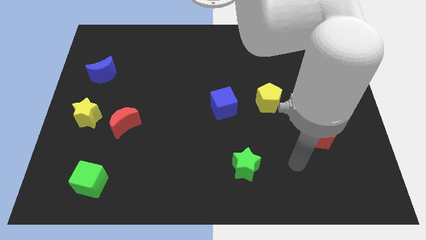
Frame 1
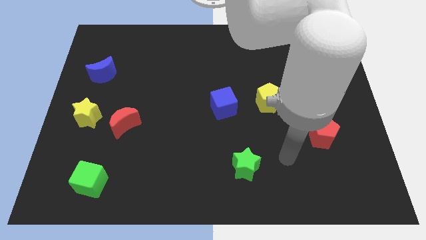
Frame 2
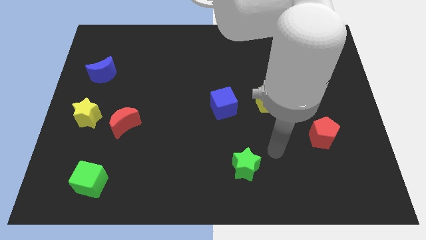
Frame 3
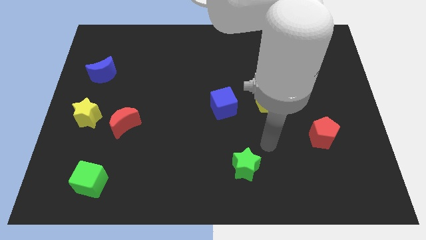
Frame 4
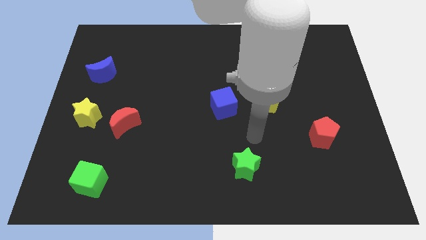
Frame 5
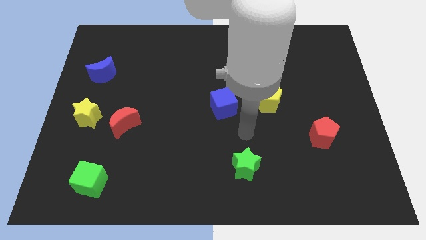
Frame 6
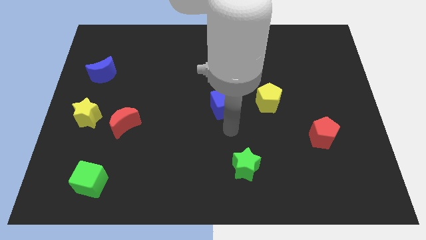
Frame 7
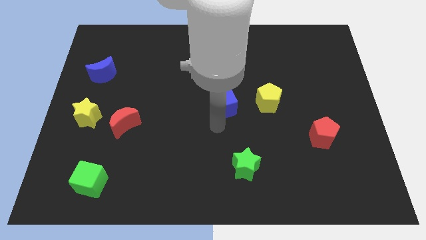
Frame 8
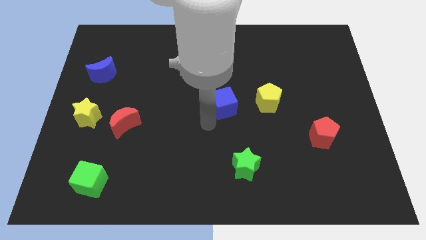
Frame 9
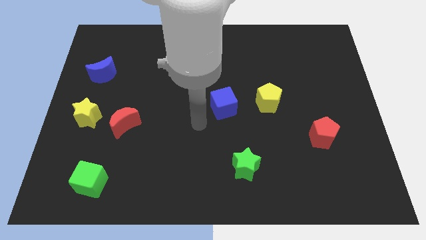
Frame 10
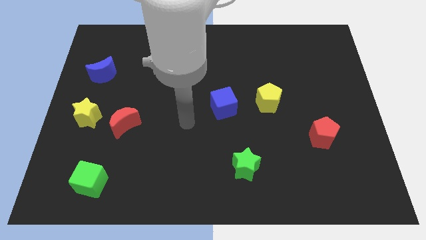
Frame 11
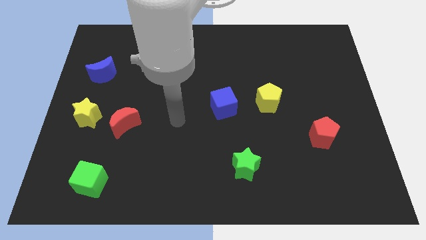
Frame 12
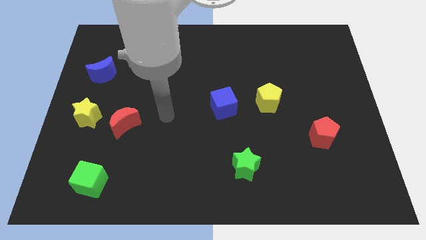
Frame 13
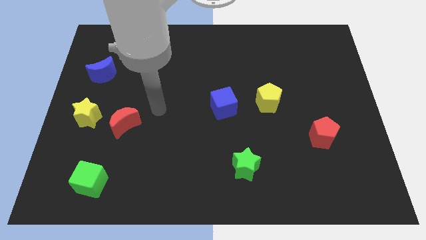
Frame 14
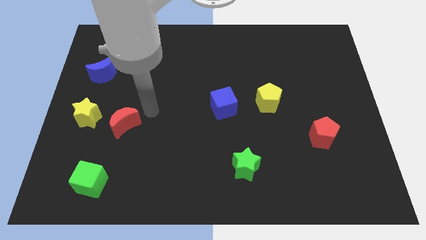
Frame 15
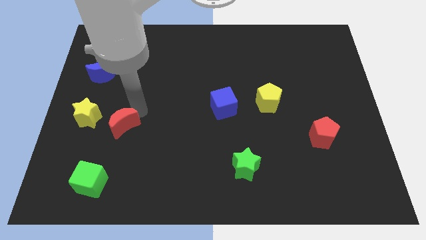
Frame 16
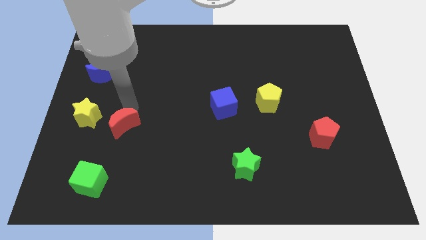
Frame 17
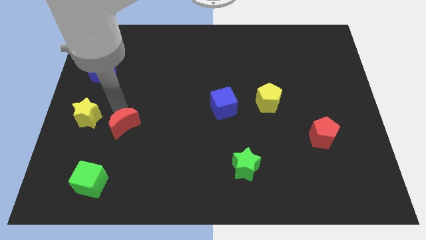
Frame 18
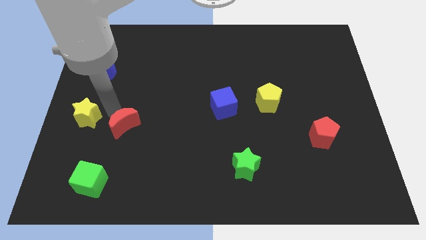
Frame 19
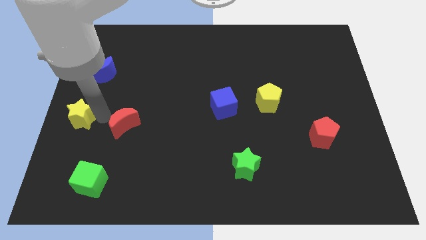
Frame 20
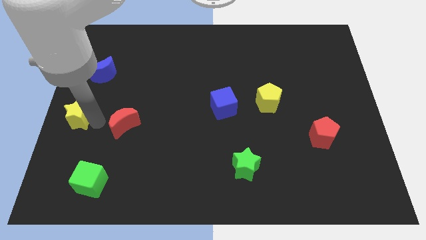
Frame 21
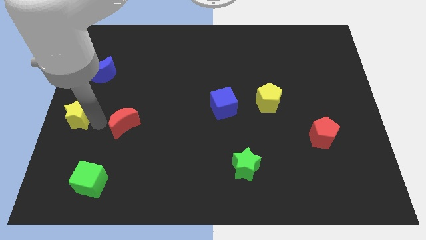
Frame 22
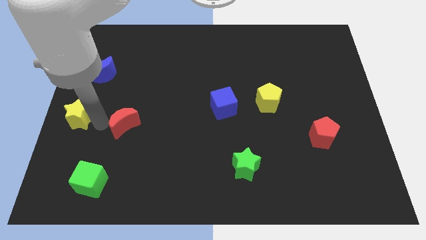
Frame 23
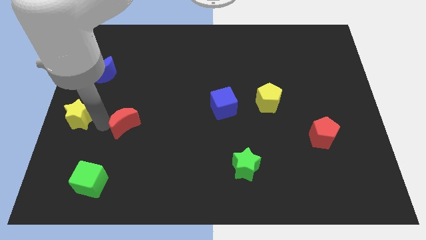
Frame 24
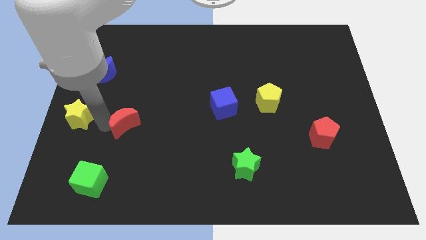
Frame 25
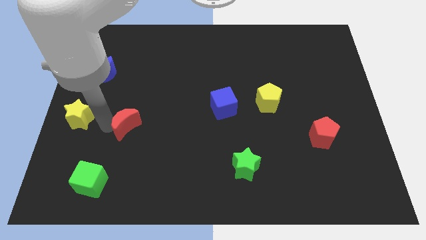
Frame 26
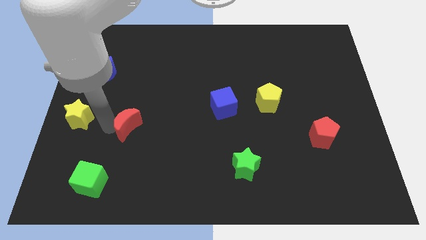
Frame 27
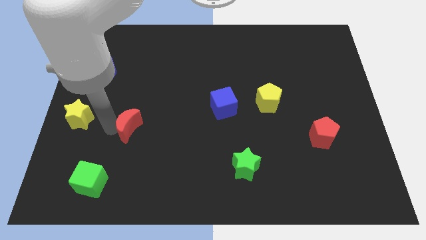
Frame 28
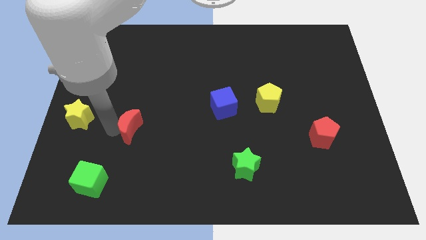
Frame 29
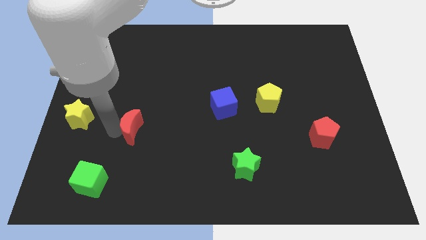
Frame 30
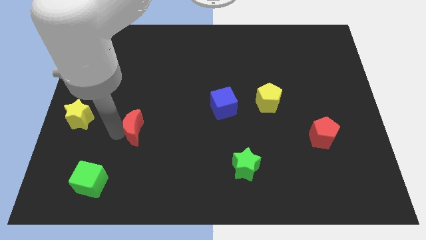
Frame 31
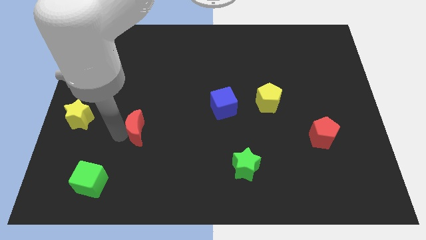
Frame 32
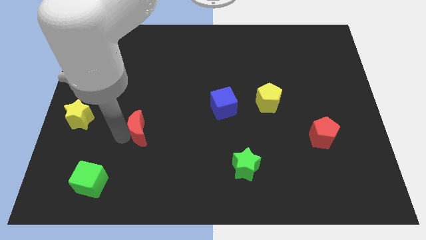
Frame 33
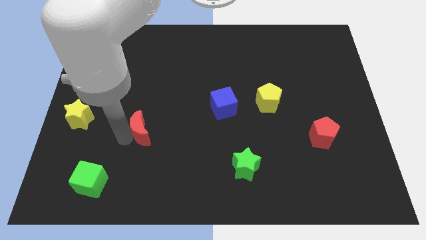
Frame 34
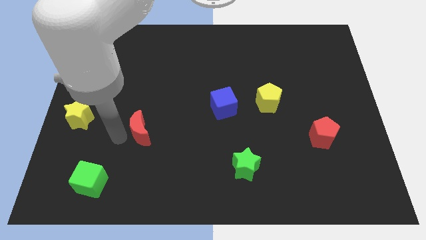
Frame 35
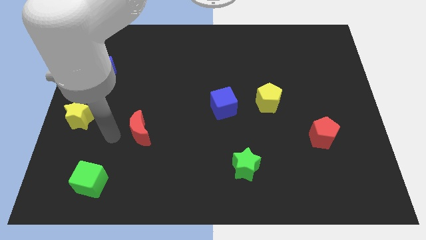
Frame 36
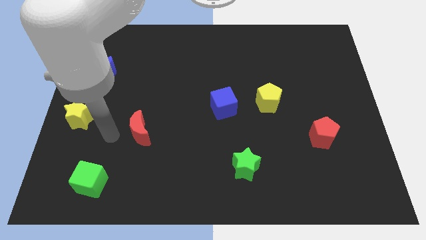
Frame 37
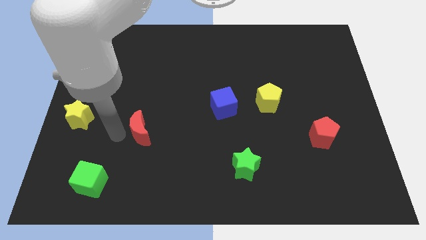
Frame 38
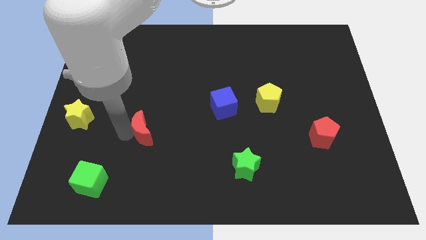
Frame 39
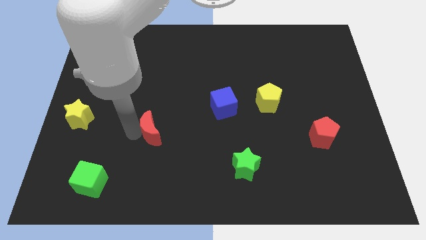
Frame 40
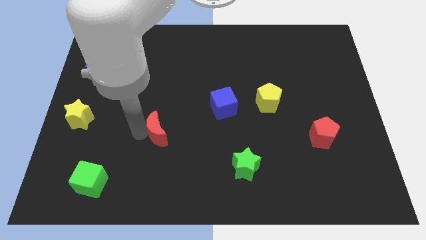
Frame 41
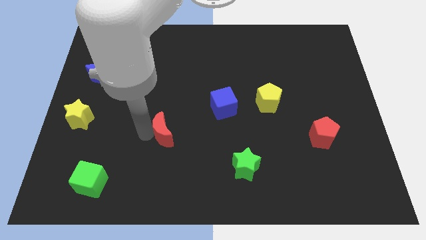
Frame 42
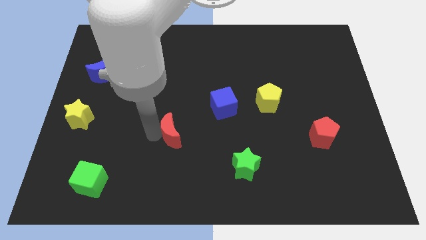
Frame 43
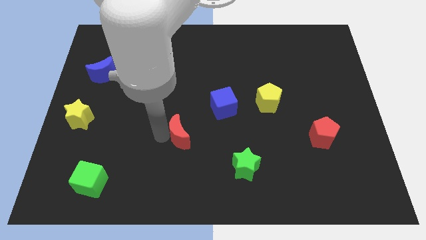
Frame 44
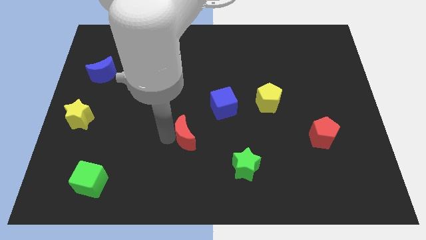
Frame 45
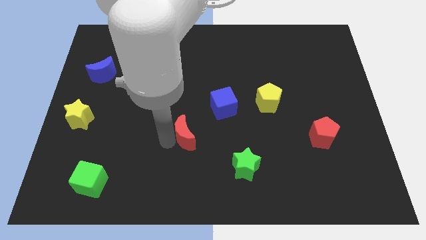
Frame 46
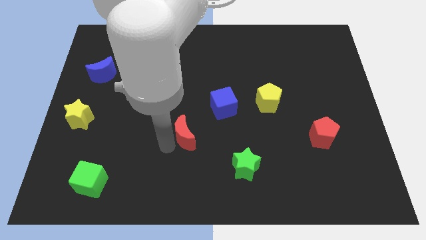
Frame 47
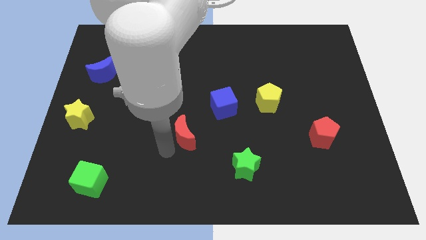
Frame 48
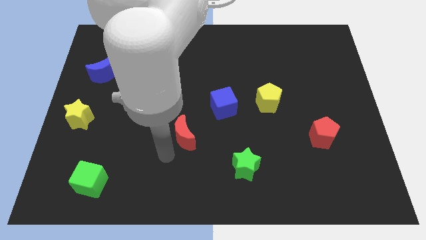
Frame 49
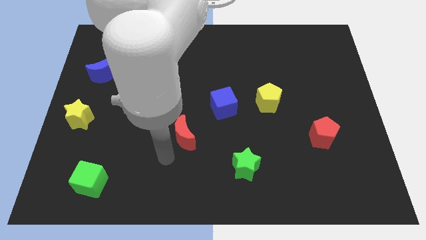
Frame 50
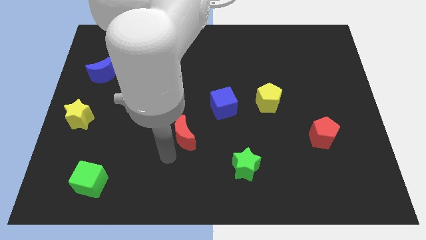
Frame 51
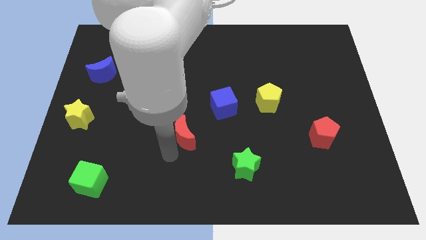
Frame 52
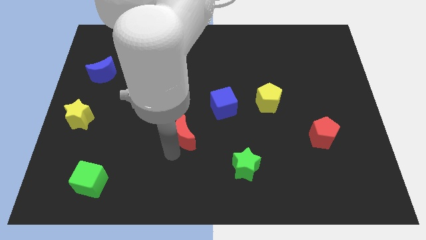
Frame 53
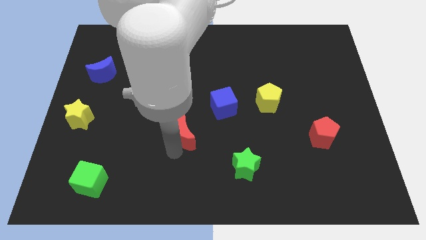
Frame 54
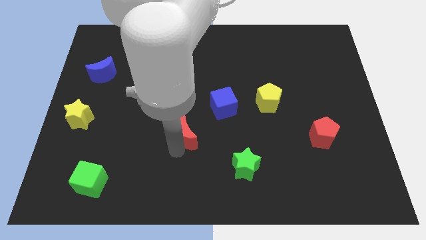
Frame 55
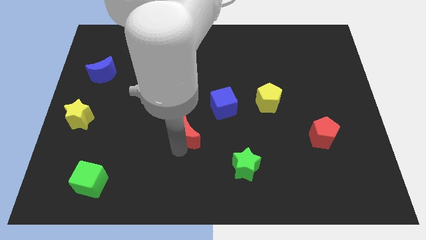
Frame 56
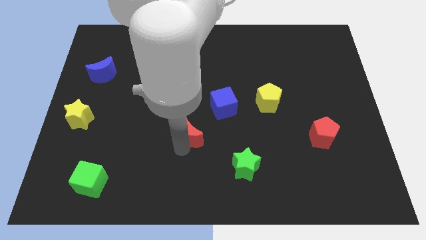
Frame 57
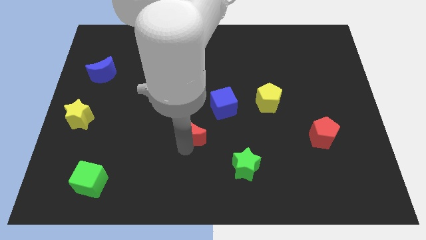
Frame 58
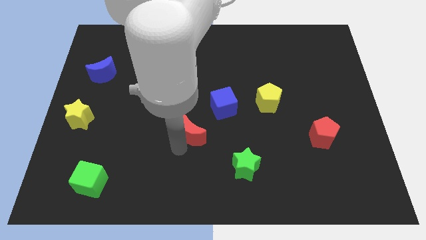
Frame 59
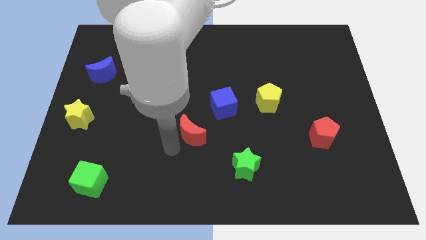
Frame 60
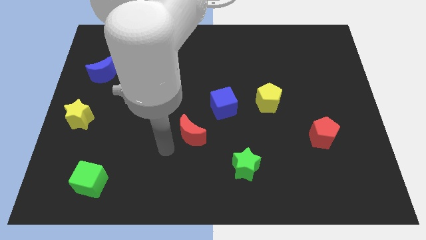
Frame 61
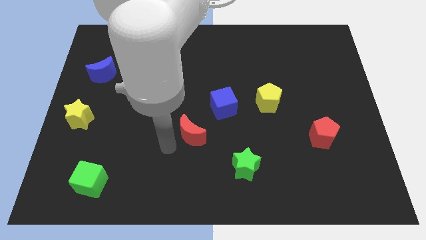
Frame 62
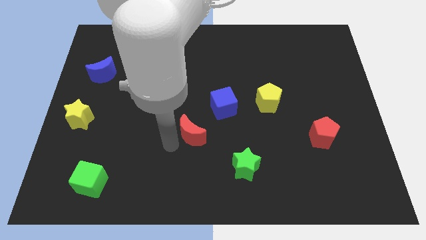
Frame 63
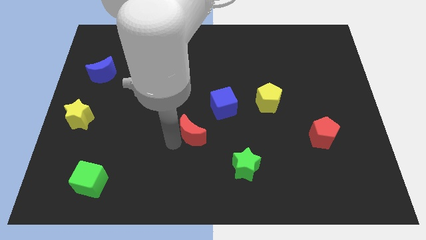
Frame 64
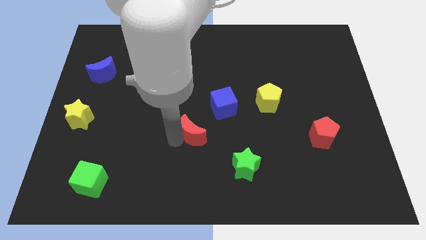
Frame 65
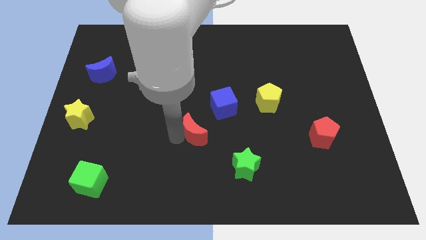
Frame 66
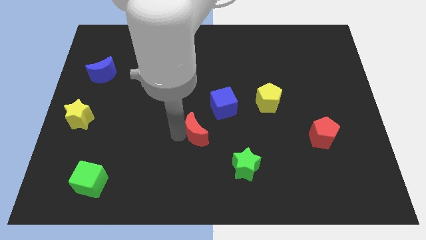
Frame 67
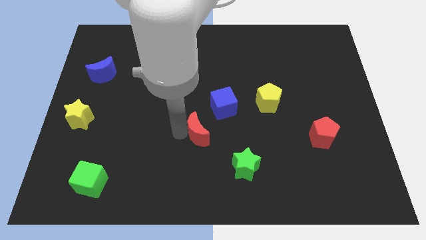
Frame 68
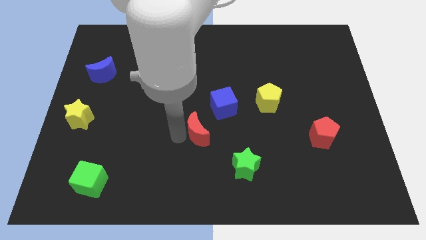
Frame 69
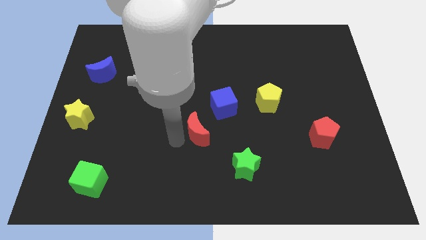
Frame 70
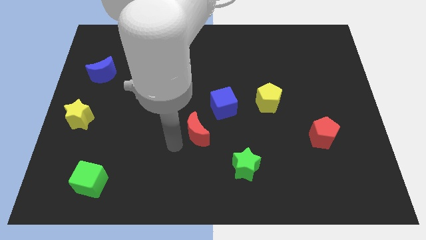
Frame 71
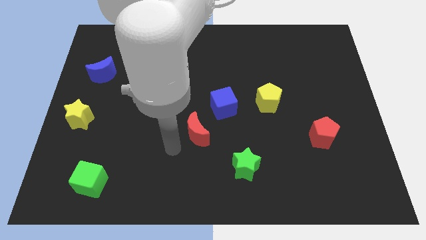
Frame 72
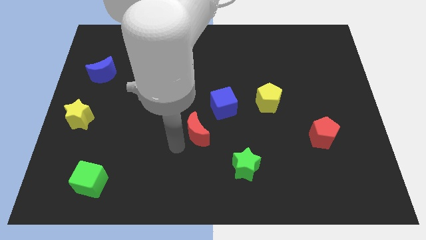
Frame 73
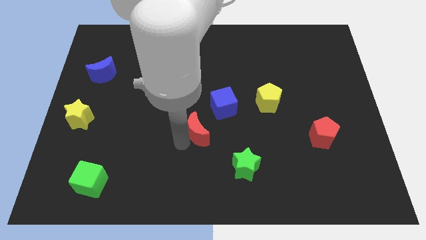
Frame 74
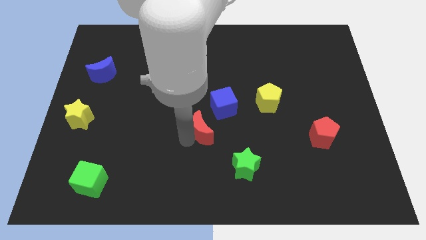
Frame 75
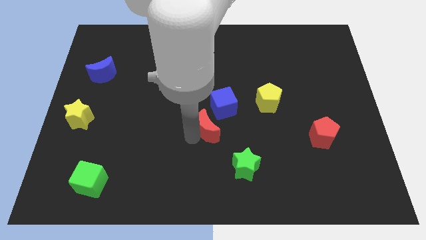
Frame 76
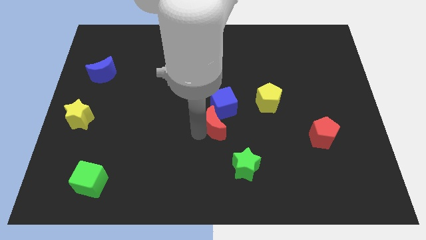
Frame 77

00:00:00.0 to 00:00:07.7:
push the red moon right

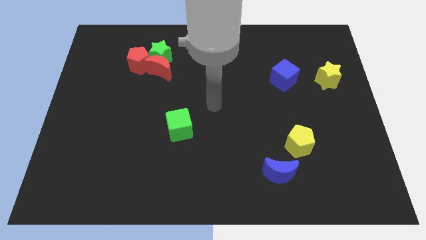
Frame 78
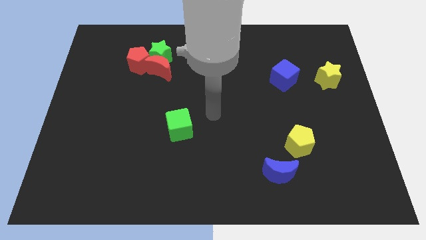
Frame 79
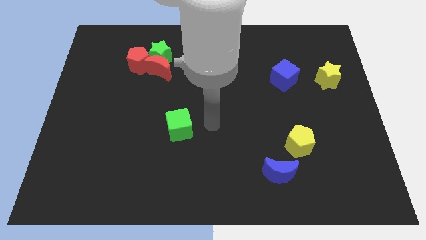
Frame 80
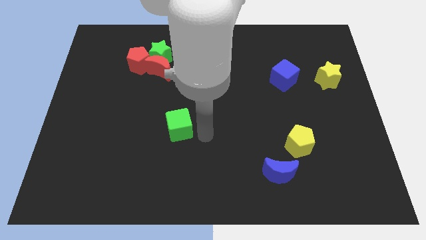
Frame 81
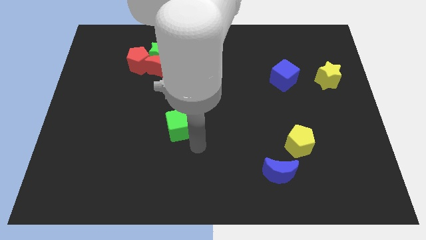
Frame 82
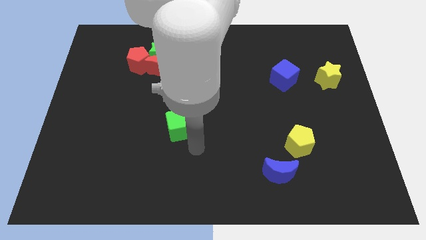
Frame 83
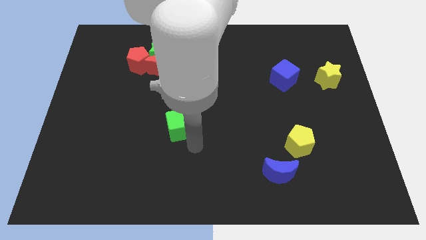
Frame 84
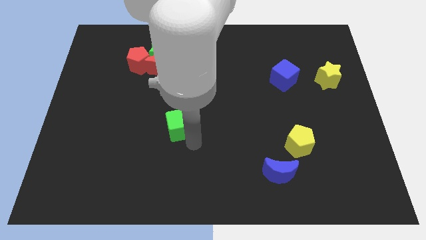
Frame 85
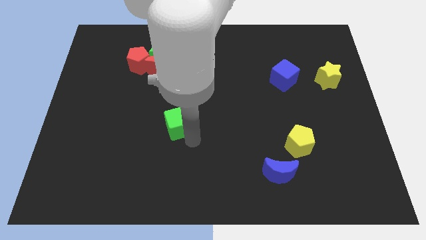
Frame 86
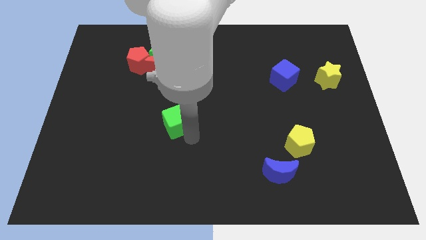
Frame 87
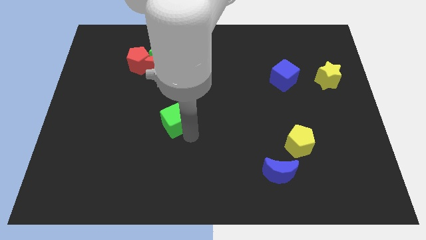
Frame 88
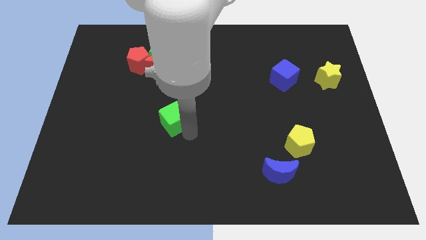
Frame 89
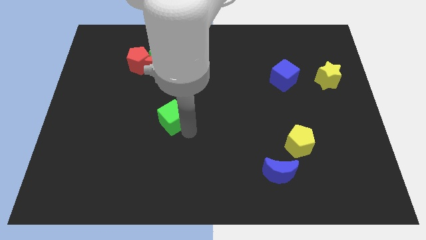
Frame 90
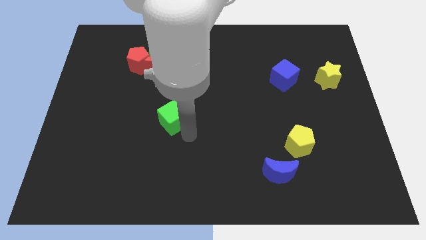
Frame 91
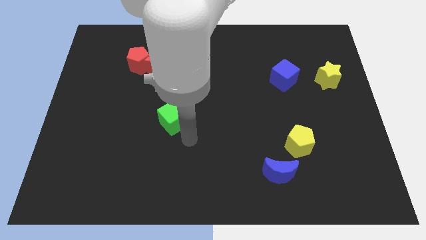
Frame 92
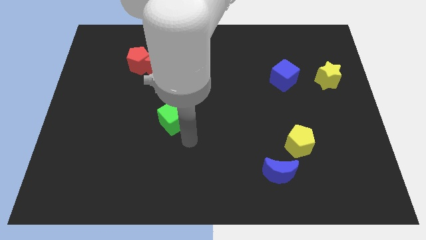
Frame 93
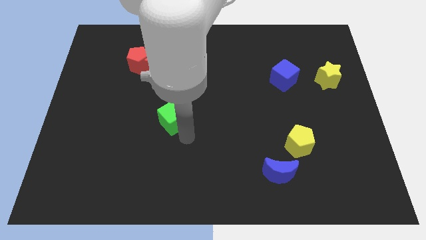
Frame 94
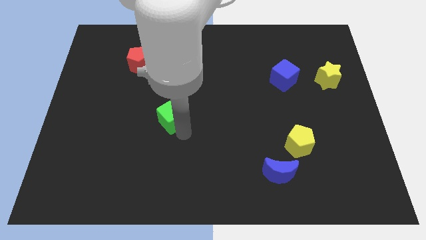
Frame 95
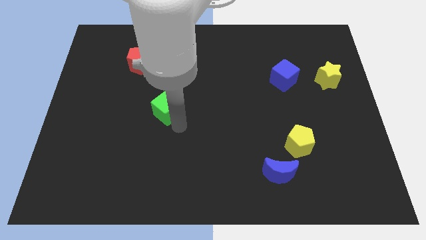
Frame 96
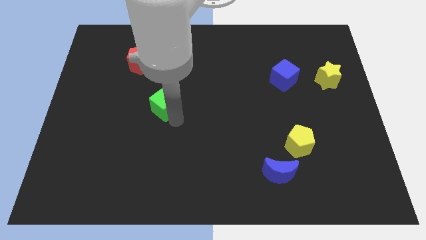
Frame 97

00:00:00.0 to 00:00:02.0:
move the green cube diagonally upwards and left a little bit
